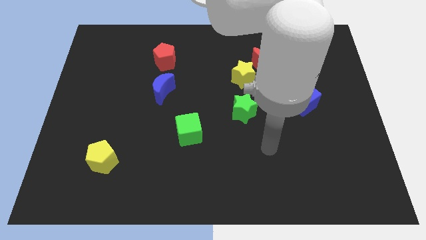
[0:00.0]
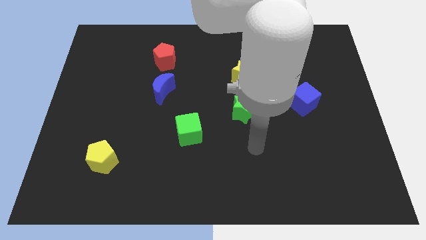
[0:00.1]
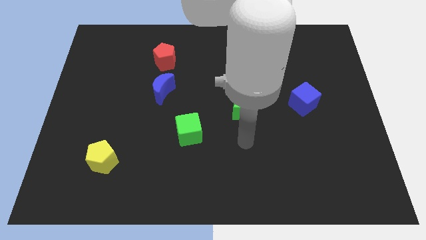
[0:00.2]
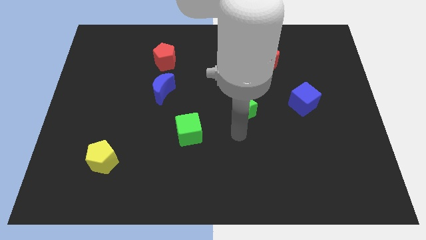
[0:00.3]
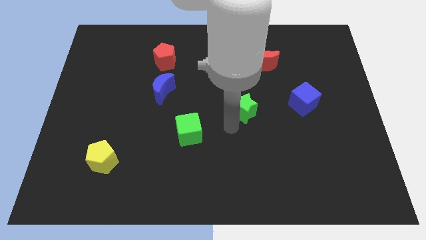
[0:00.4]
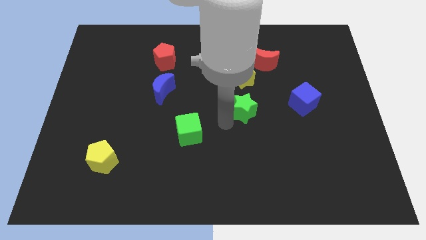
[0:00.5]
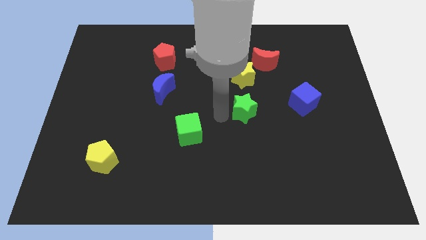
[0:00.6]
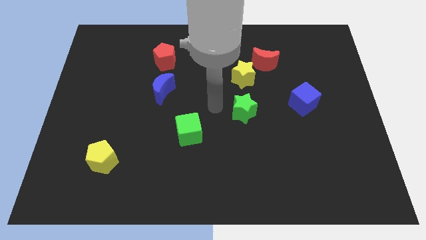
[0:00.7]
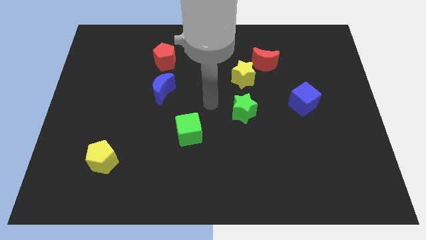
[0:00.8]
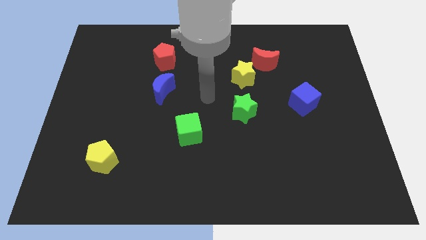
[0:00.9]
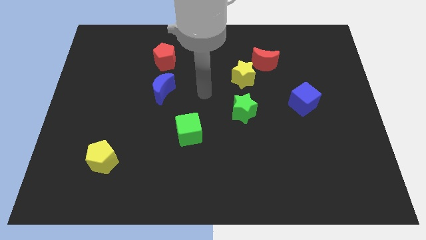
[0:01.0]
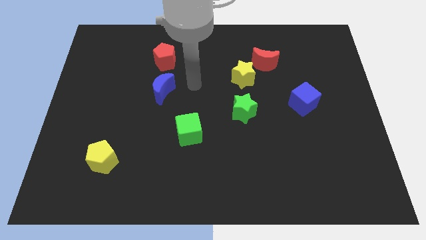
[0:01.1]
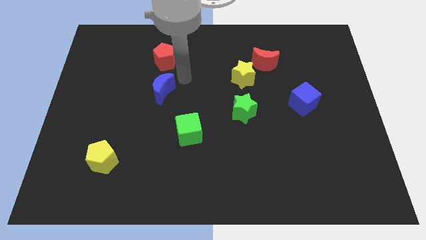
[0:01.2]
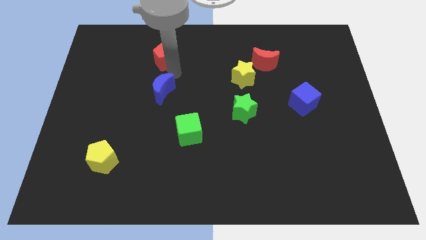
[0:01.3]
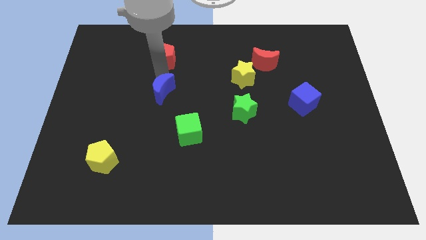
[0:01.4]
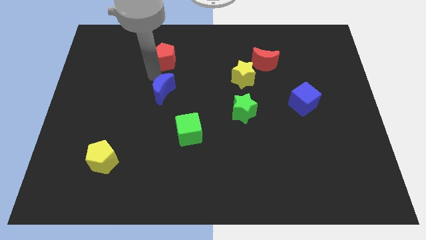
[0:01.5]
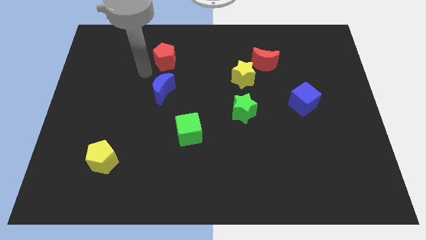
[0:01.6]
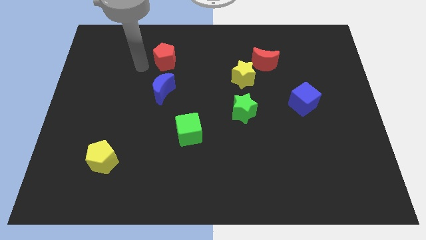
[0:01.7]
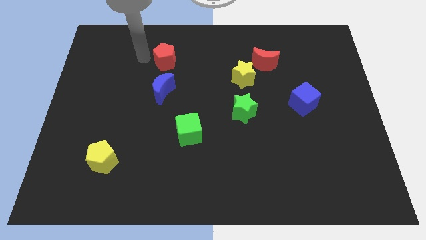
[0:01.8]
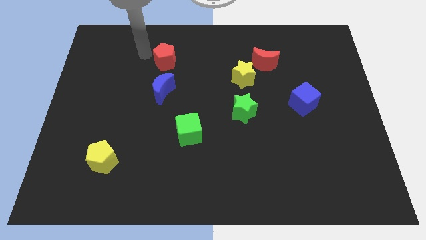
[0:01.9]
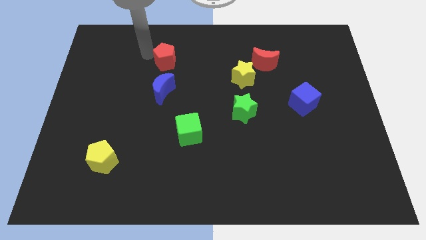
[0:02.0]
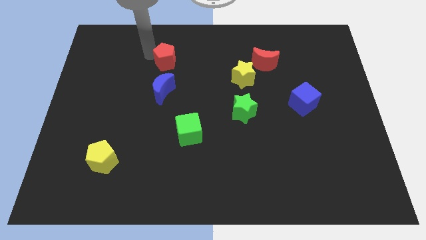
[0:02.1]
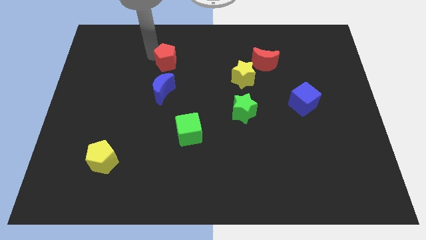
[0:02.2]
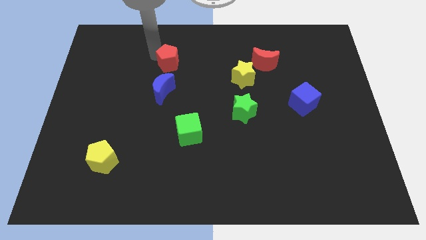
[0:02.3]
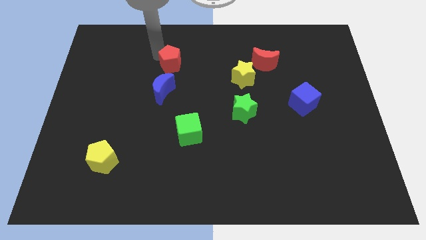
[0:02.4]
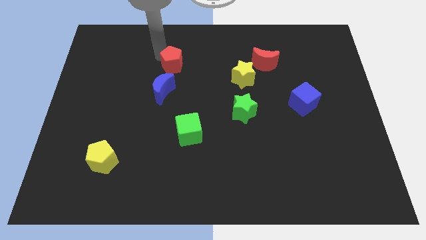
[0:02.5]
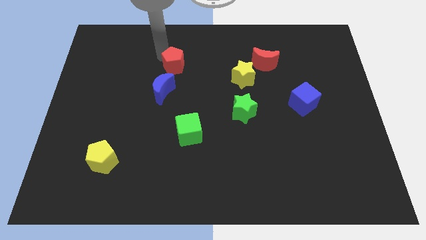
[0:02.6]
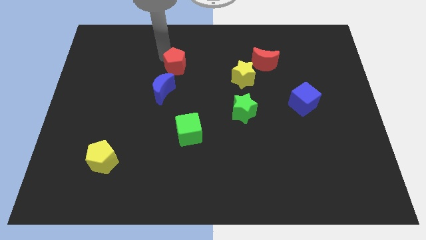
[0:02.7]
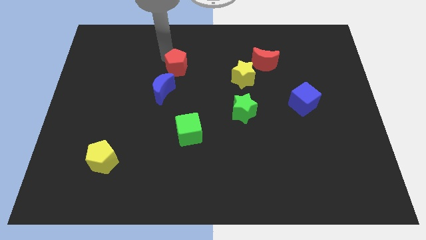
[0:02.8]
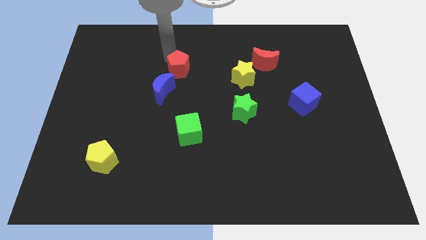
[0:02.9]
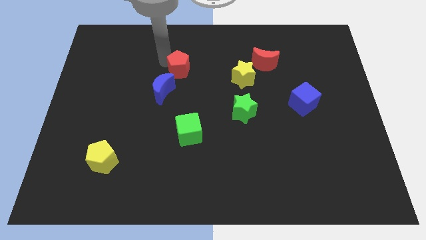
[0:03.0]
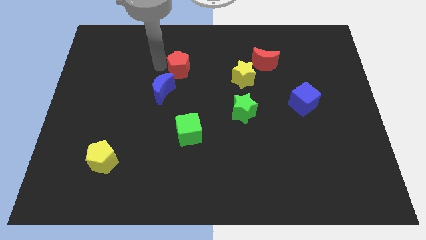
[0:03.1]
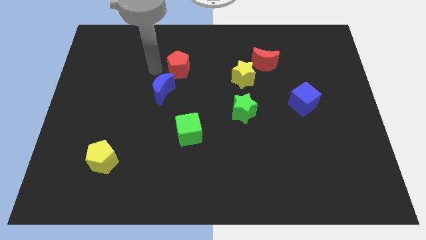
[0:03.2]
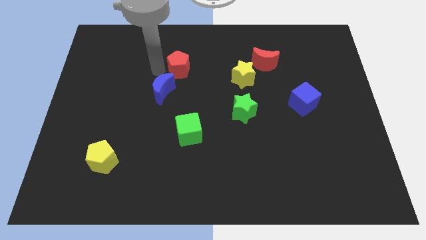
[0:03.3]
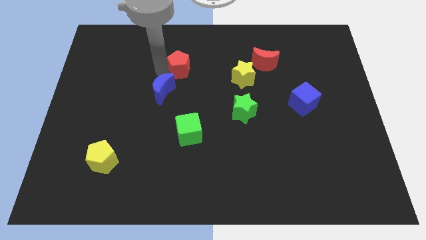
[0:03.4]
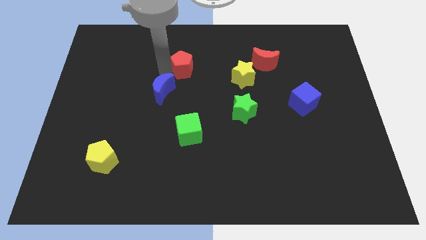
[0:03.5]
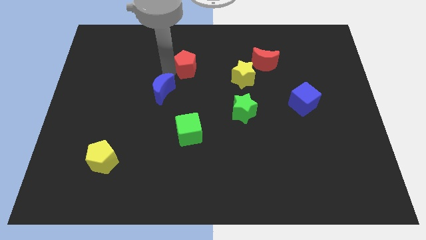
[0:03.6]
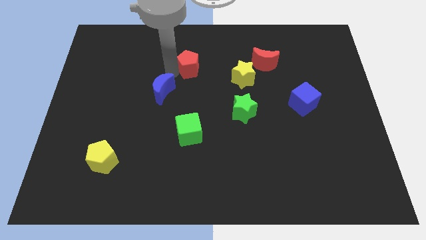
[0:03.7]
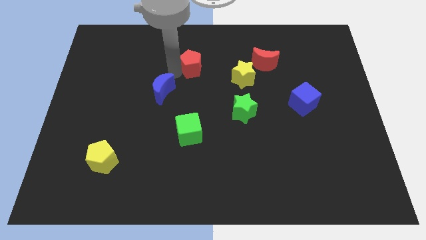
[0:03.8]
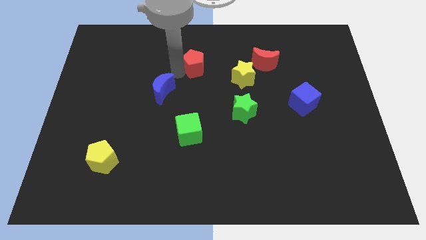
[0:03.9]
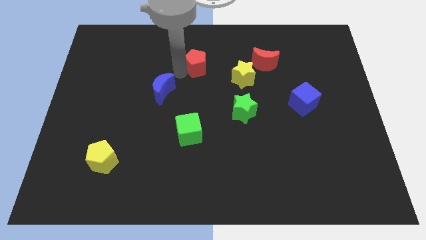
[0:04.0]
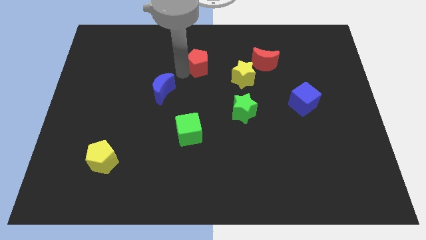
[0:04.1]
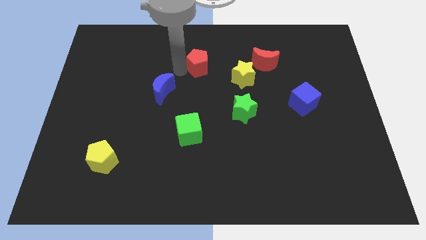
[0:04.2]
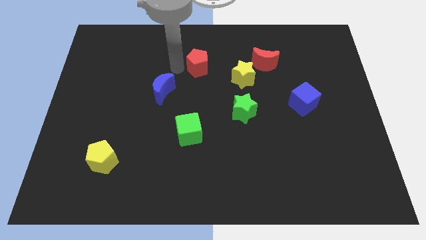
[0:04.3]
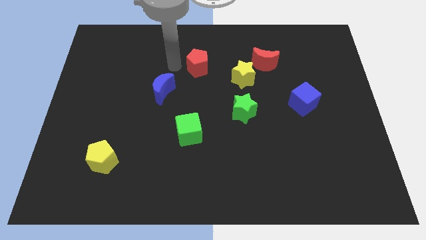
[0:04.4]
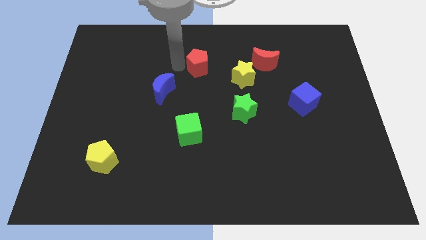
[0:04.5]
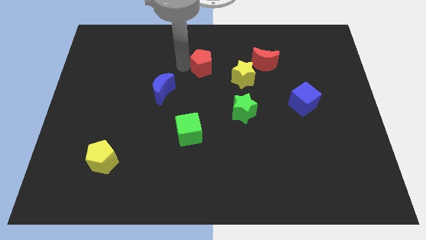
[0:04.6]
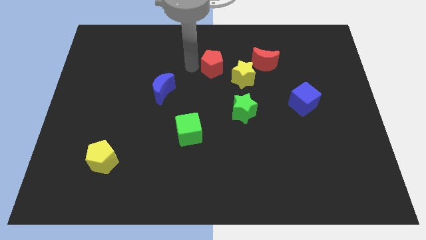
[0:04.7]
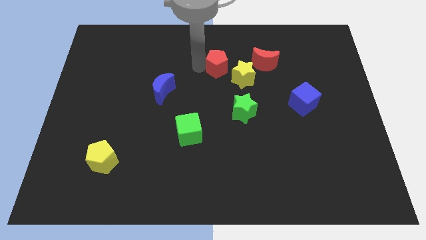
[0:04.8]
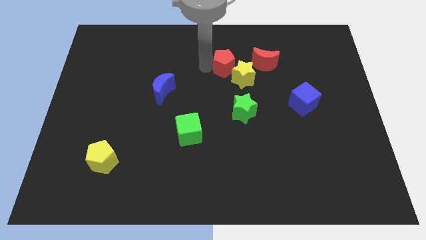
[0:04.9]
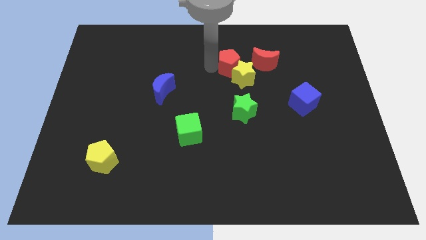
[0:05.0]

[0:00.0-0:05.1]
push the red pentagon to the top of the green star

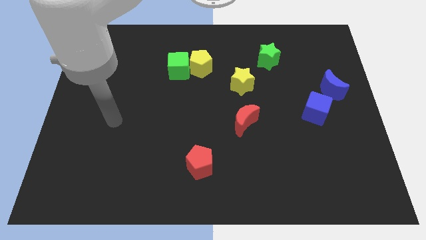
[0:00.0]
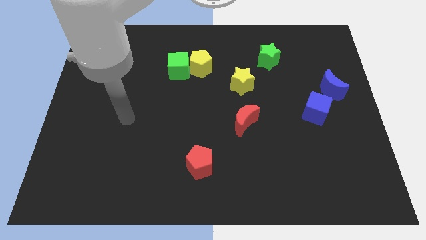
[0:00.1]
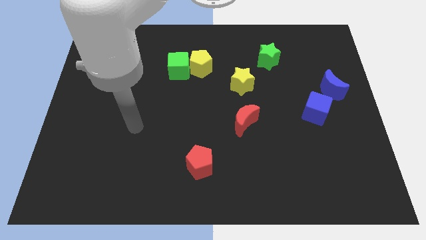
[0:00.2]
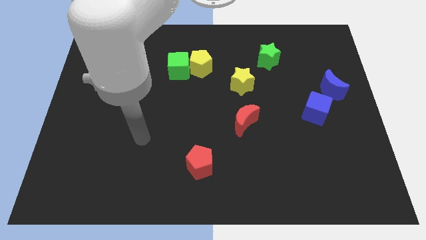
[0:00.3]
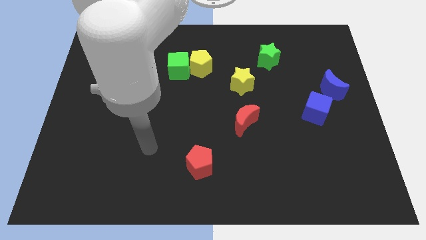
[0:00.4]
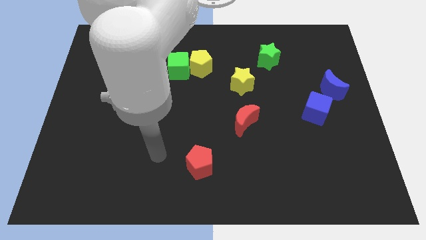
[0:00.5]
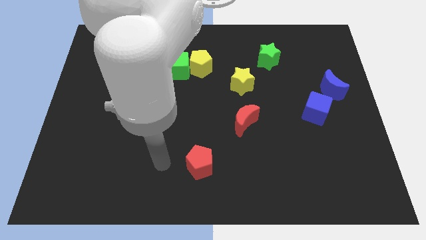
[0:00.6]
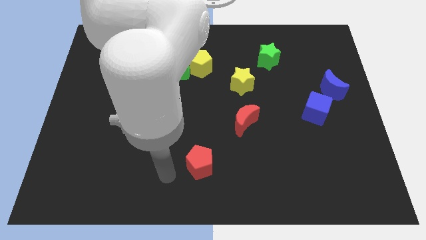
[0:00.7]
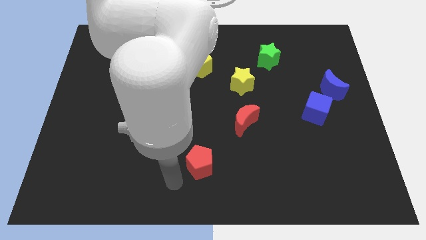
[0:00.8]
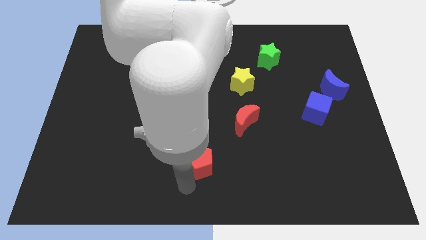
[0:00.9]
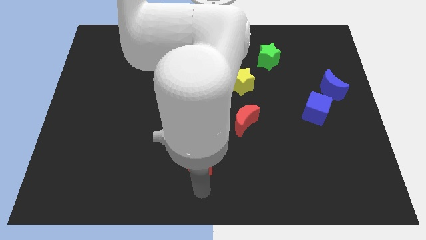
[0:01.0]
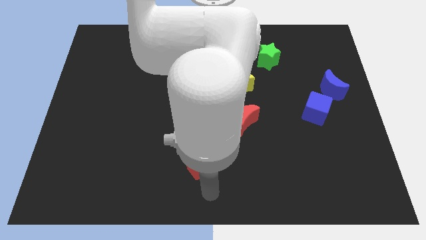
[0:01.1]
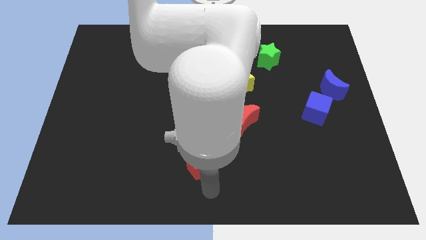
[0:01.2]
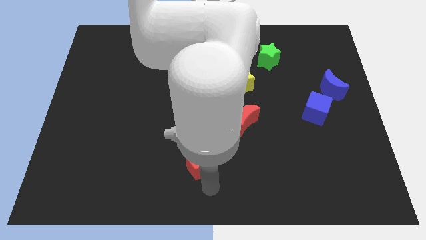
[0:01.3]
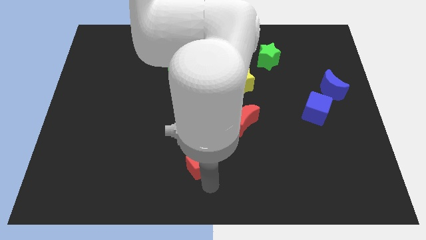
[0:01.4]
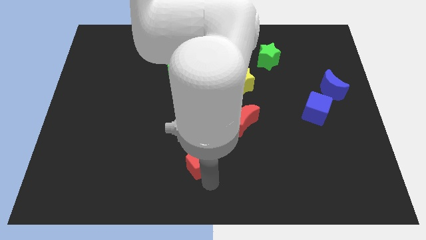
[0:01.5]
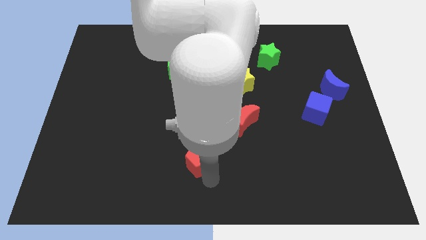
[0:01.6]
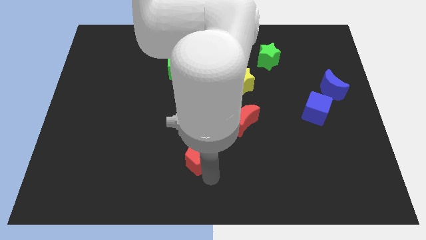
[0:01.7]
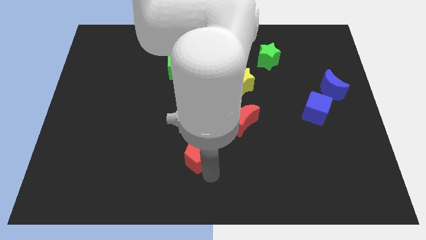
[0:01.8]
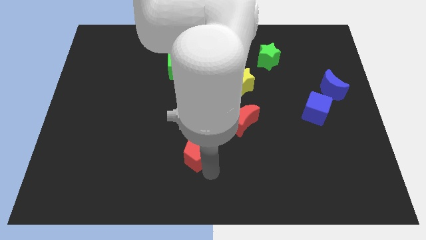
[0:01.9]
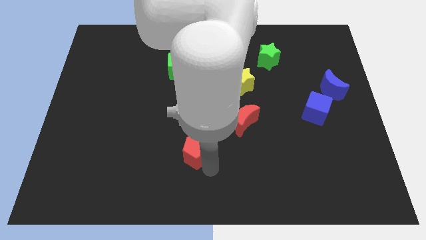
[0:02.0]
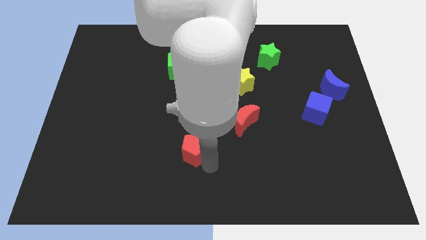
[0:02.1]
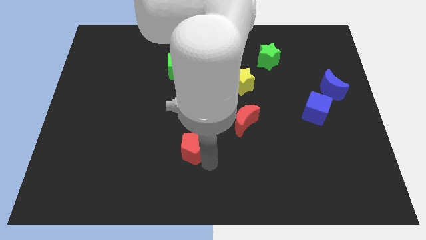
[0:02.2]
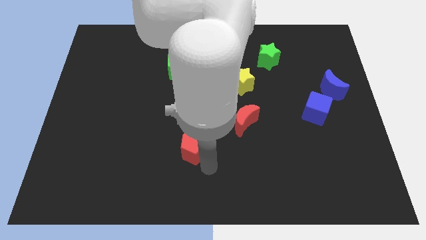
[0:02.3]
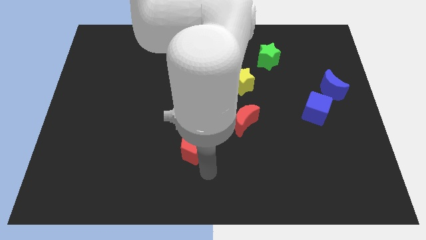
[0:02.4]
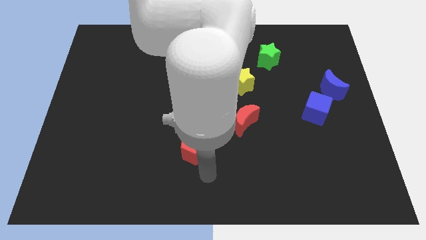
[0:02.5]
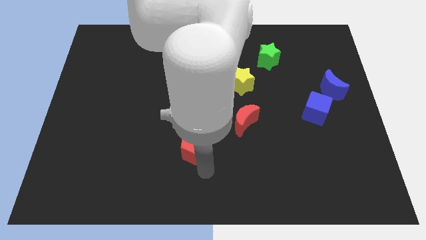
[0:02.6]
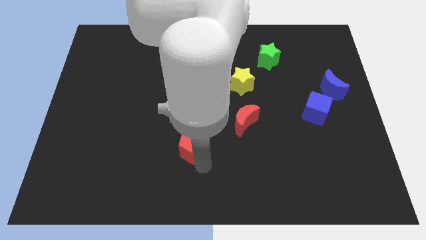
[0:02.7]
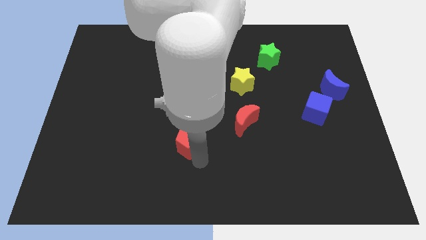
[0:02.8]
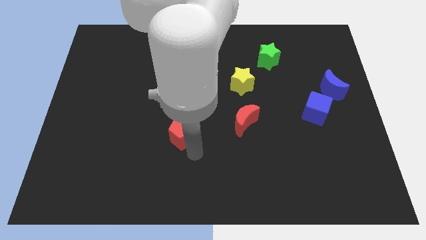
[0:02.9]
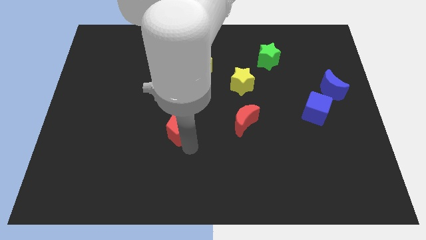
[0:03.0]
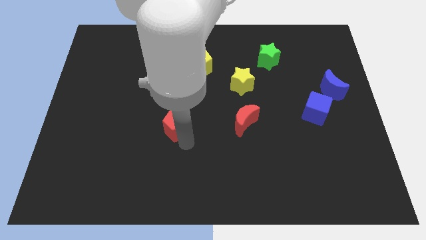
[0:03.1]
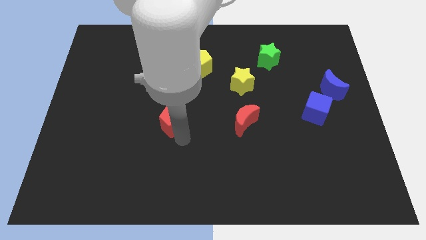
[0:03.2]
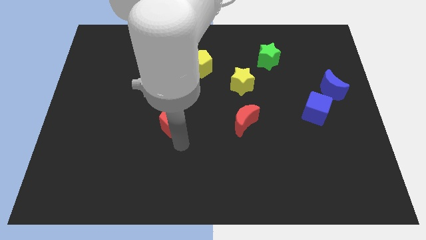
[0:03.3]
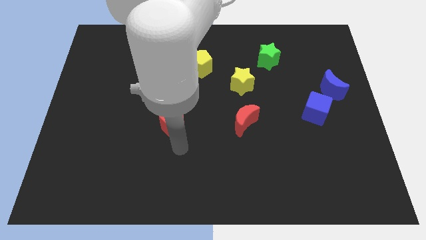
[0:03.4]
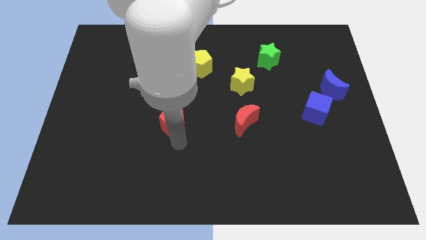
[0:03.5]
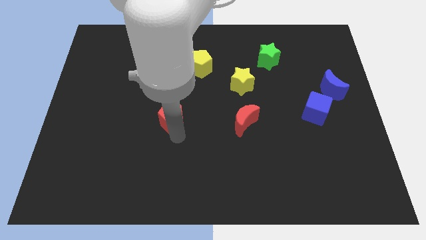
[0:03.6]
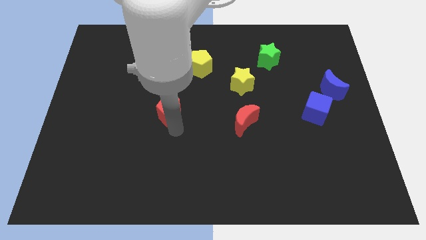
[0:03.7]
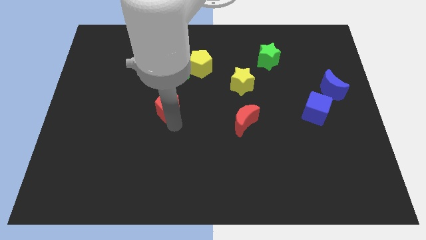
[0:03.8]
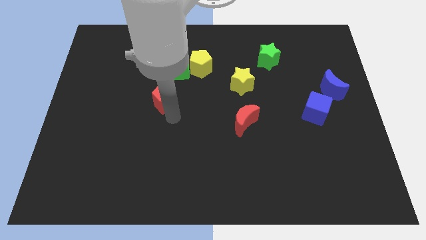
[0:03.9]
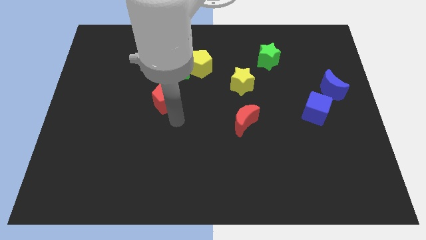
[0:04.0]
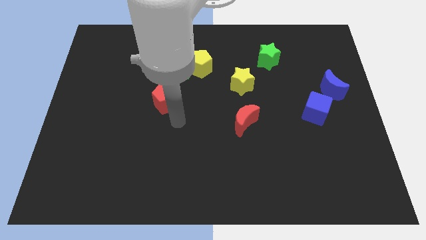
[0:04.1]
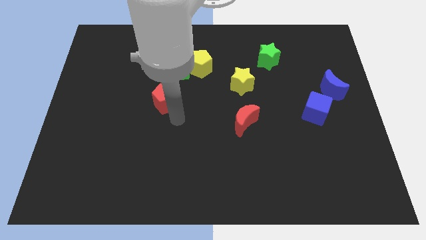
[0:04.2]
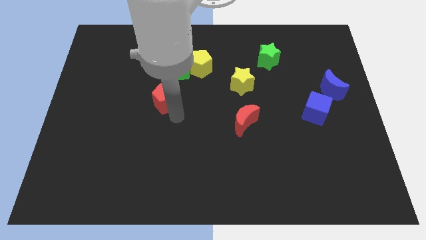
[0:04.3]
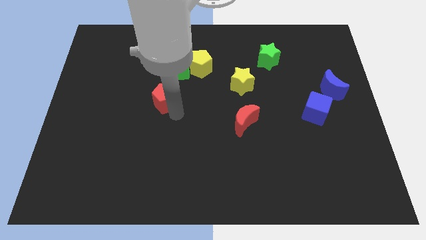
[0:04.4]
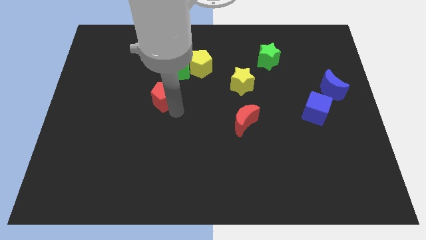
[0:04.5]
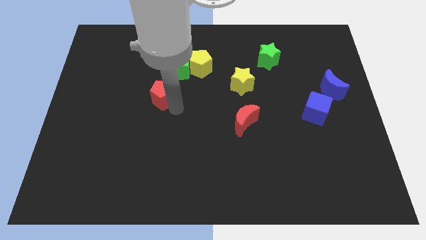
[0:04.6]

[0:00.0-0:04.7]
push the red pentagon to the bottom left of the green cube
